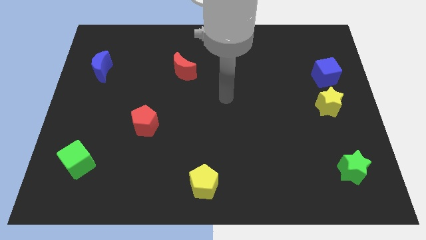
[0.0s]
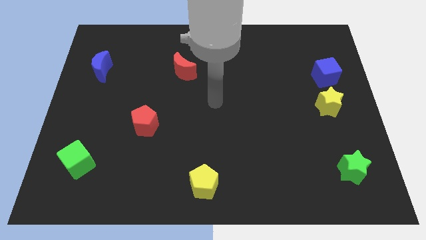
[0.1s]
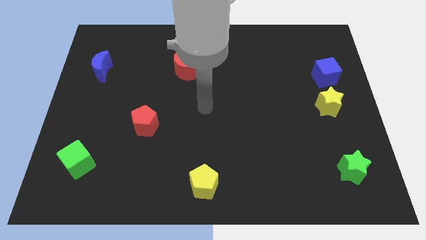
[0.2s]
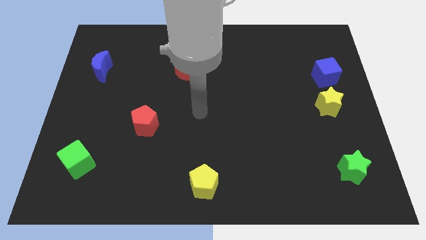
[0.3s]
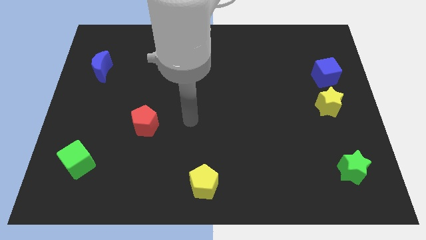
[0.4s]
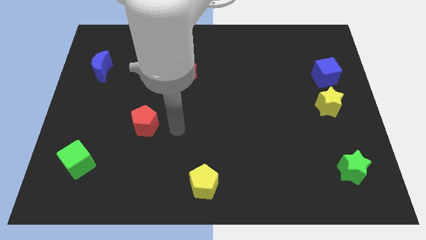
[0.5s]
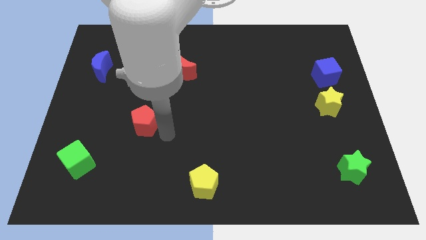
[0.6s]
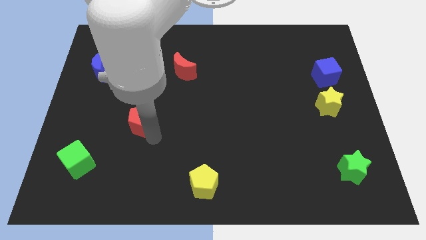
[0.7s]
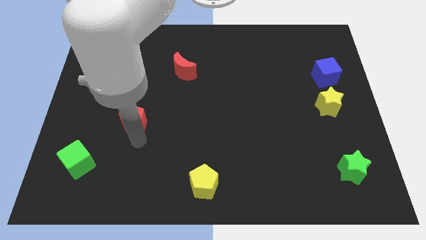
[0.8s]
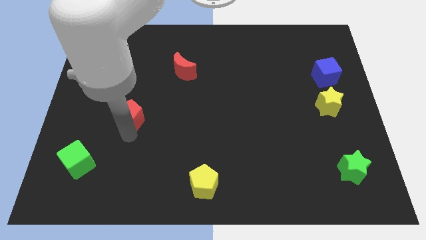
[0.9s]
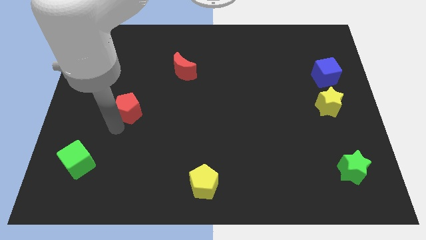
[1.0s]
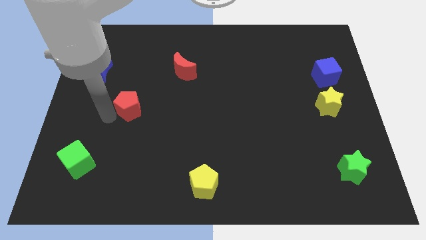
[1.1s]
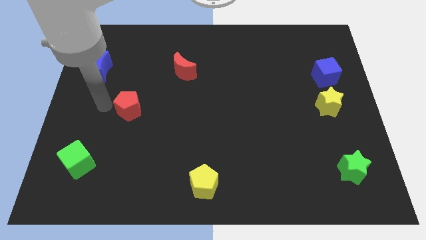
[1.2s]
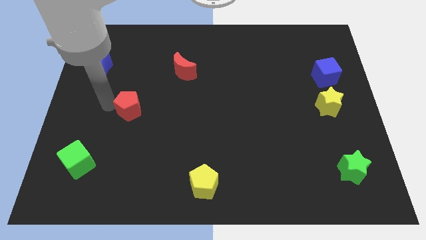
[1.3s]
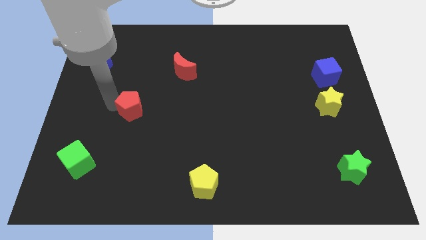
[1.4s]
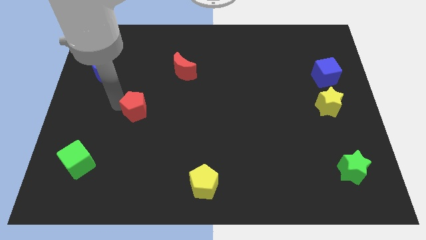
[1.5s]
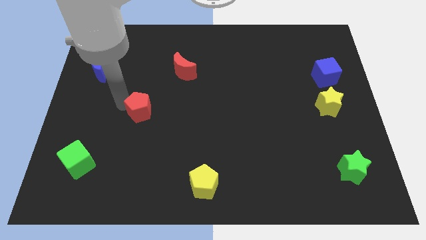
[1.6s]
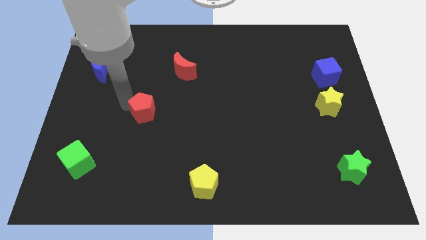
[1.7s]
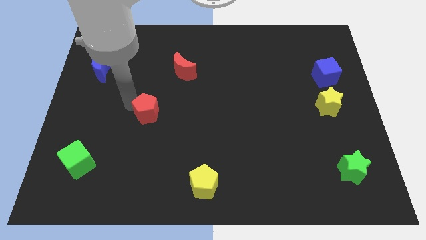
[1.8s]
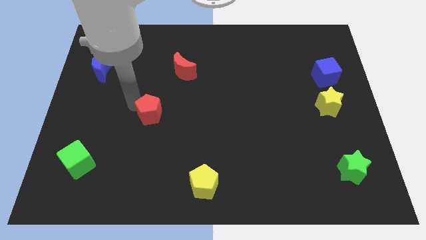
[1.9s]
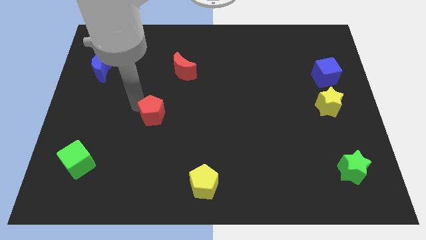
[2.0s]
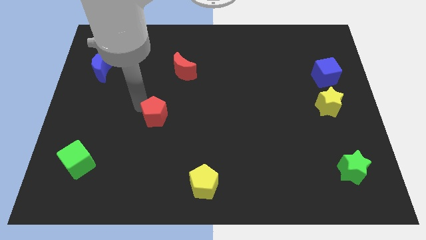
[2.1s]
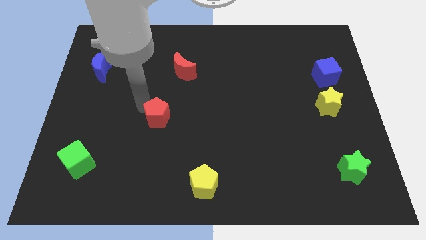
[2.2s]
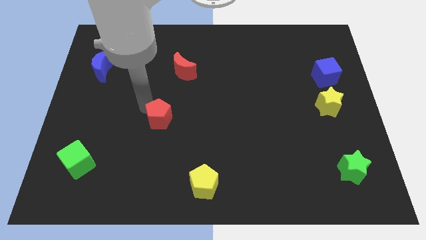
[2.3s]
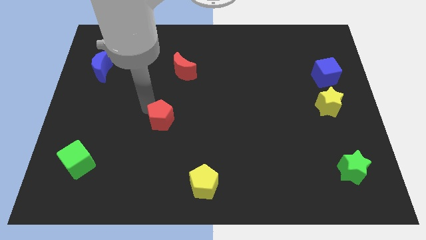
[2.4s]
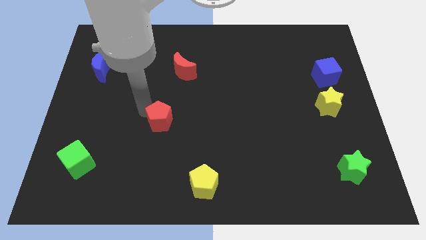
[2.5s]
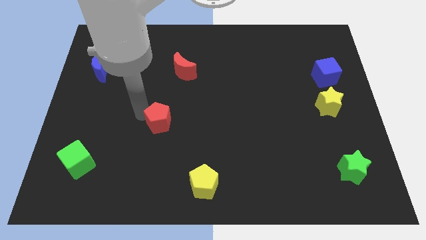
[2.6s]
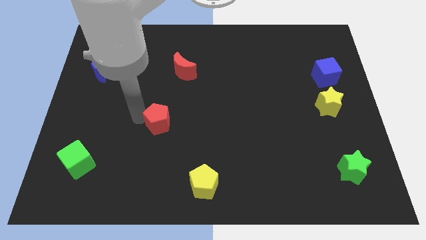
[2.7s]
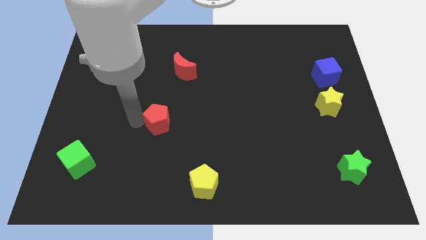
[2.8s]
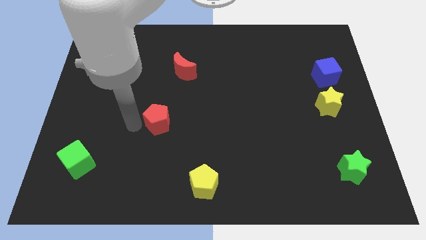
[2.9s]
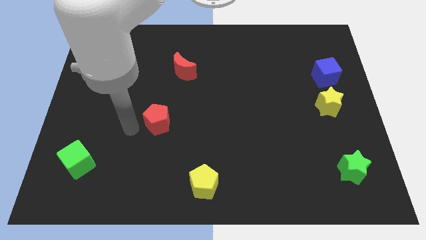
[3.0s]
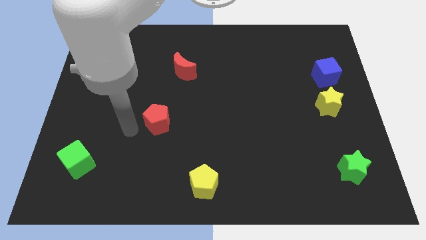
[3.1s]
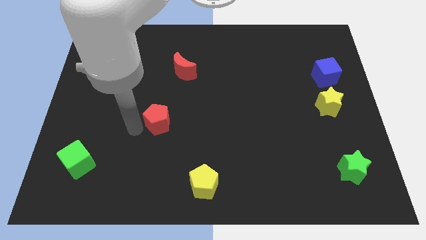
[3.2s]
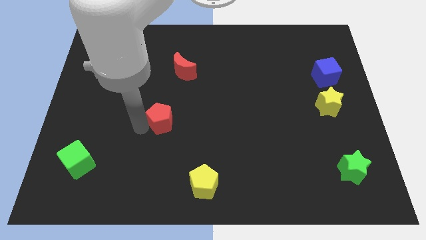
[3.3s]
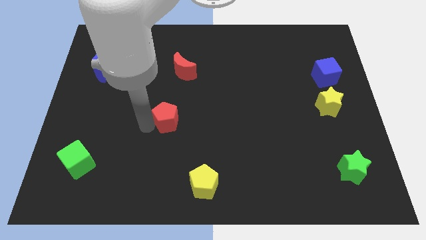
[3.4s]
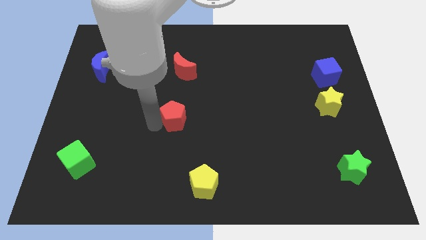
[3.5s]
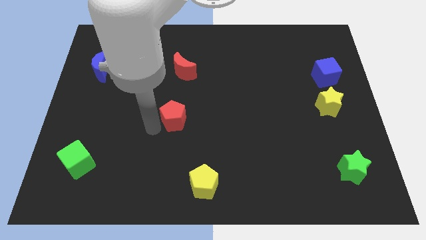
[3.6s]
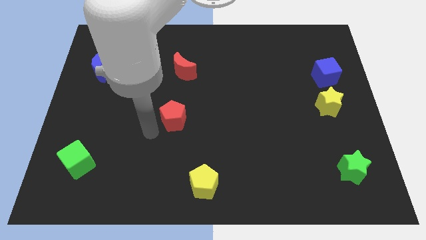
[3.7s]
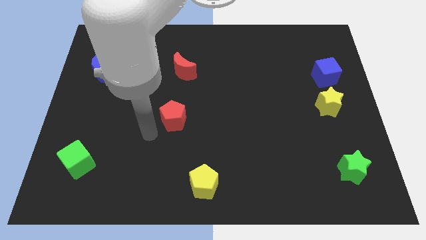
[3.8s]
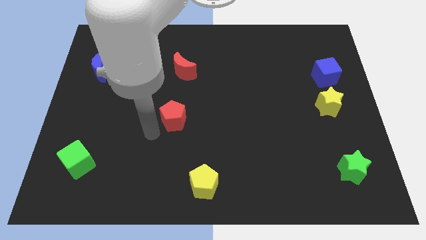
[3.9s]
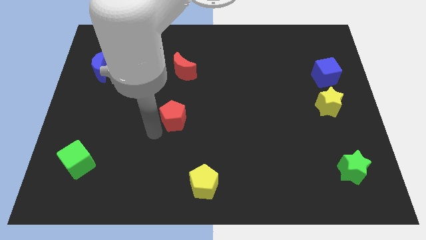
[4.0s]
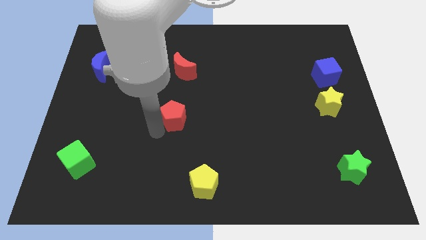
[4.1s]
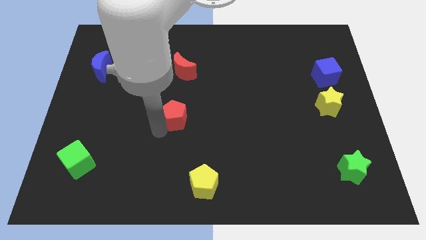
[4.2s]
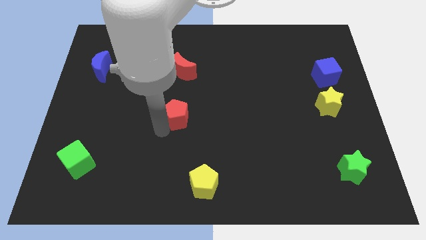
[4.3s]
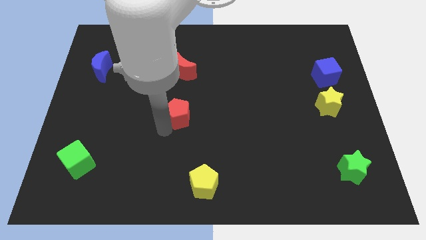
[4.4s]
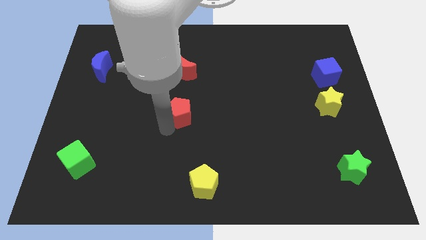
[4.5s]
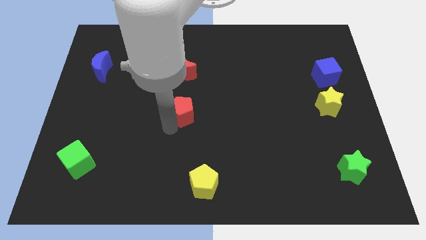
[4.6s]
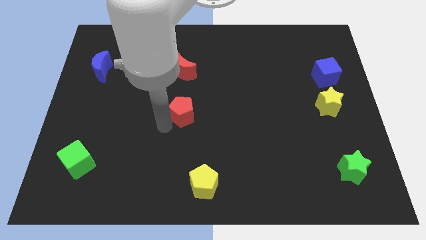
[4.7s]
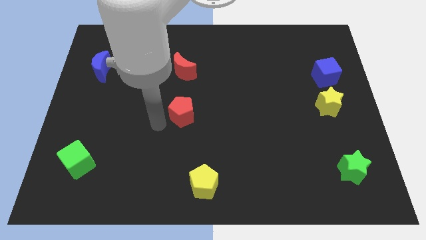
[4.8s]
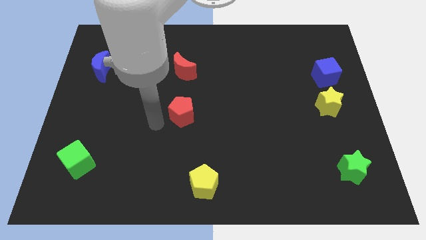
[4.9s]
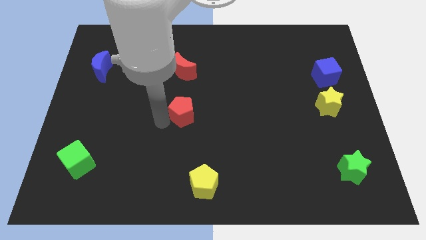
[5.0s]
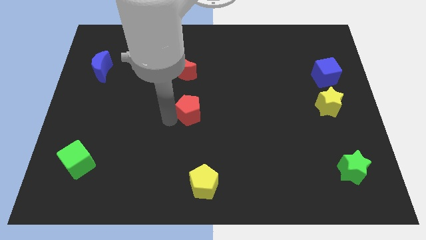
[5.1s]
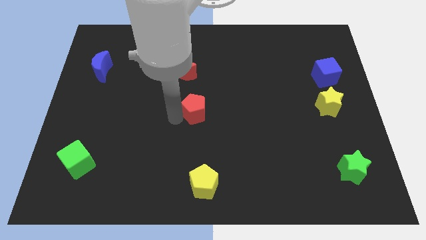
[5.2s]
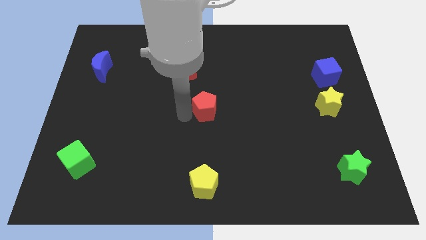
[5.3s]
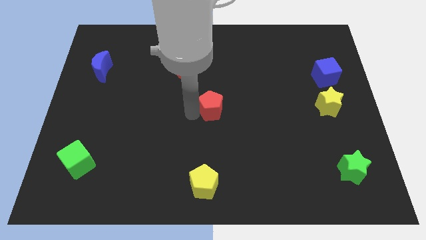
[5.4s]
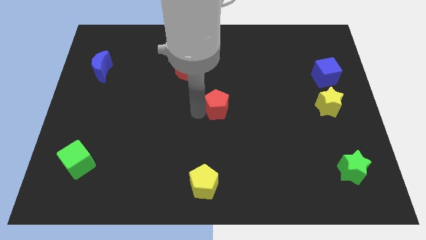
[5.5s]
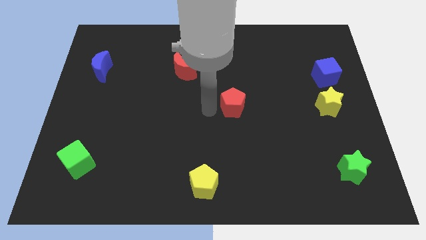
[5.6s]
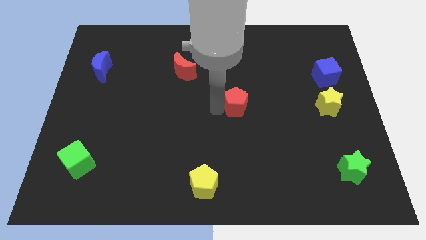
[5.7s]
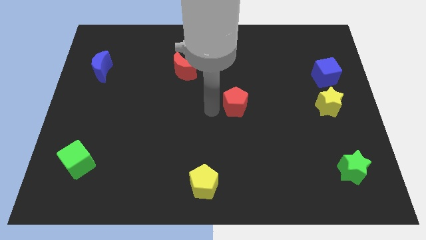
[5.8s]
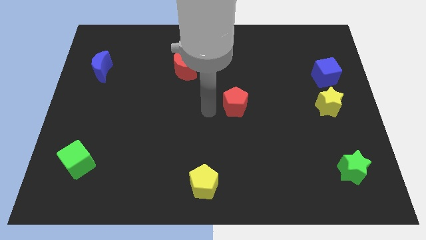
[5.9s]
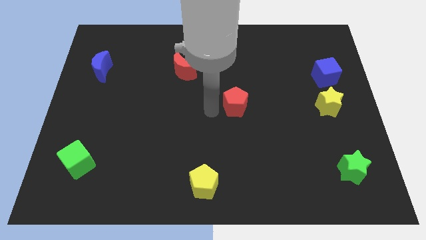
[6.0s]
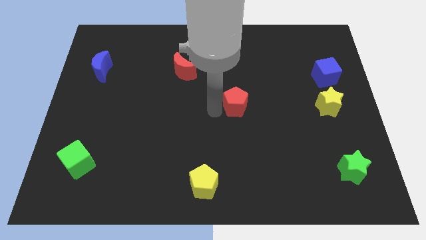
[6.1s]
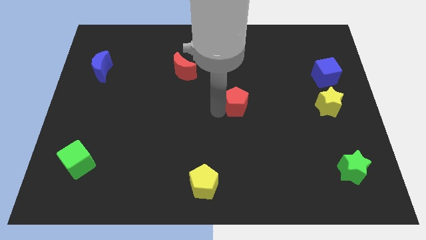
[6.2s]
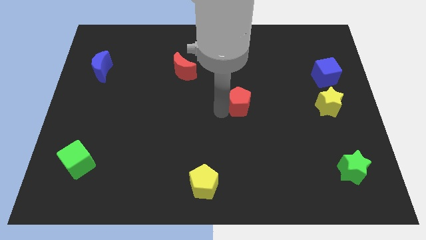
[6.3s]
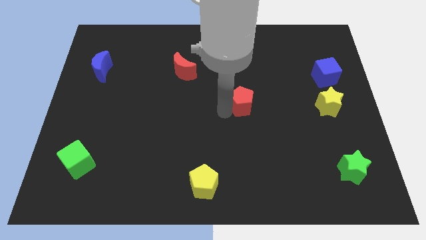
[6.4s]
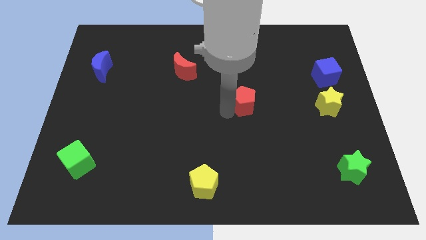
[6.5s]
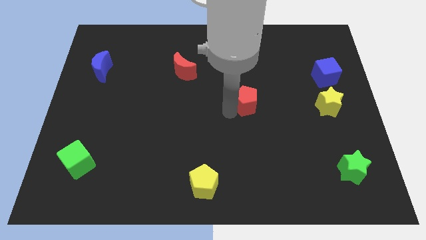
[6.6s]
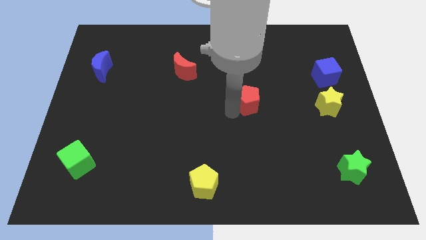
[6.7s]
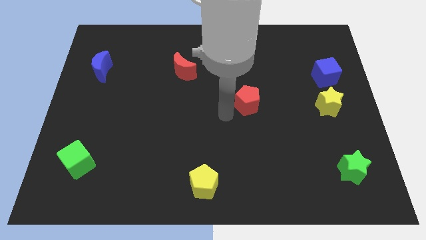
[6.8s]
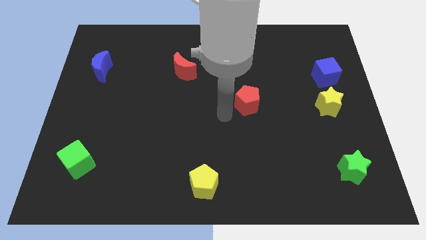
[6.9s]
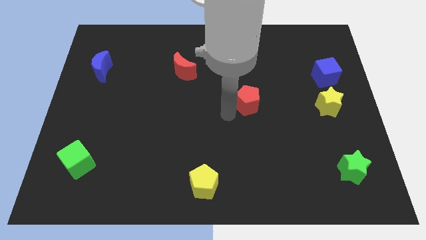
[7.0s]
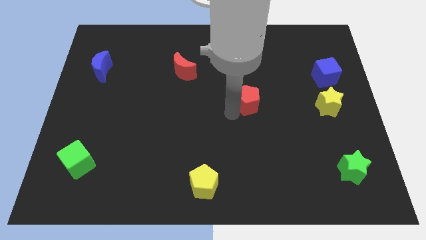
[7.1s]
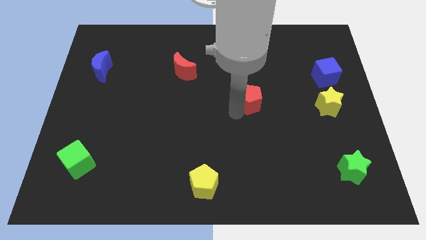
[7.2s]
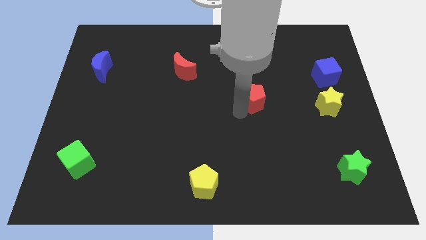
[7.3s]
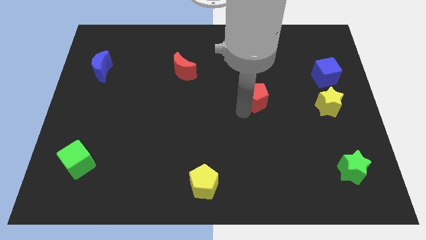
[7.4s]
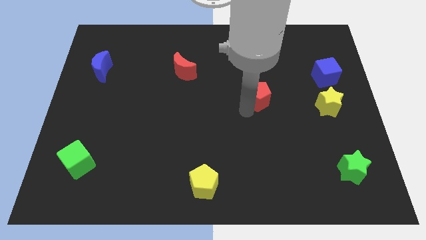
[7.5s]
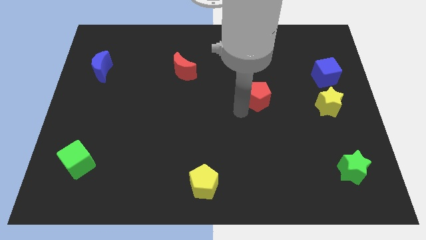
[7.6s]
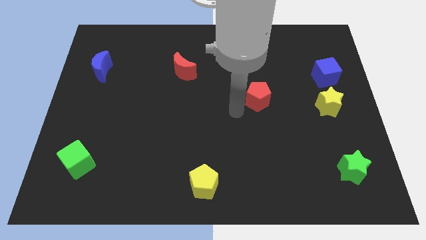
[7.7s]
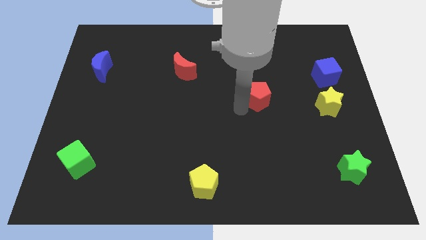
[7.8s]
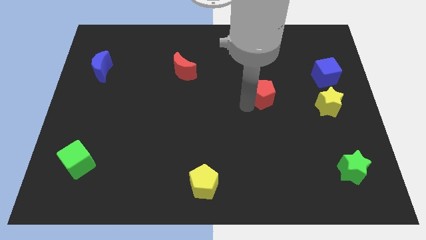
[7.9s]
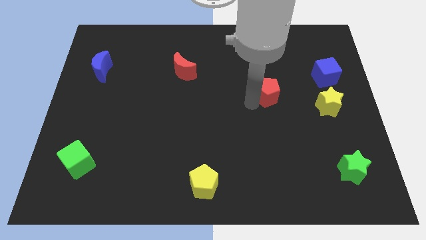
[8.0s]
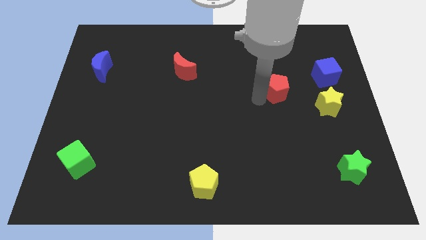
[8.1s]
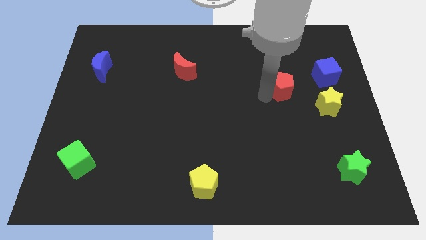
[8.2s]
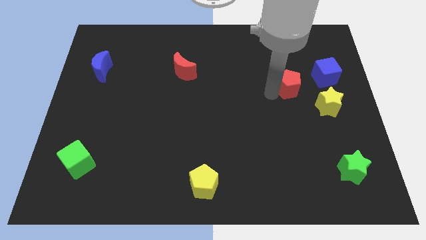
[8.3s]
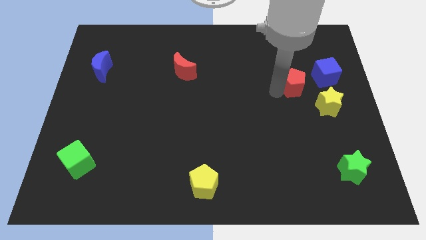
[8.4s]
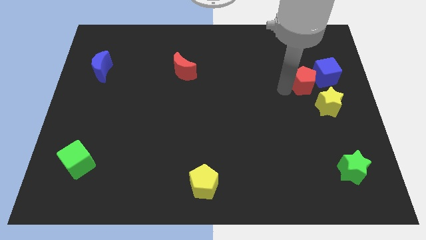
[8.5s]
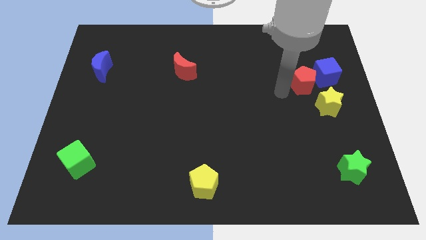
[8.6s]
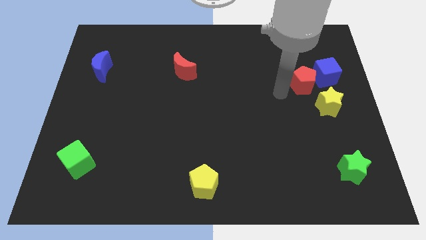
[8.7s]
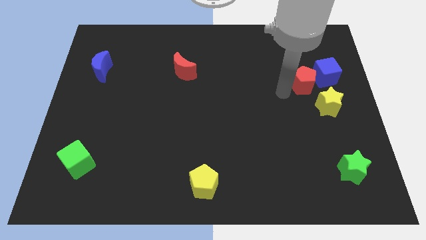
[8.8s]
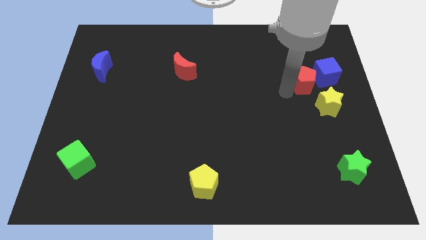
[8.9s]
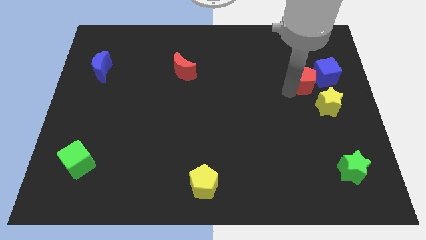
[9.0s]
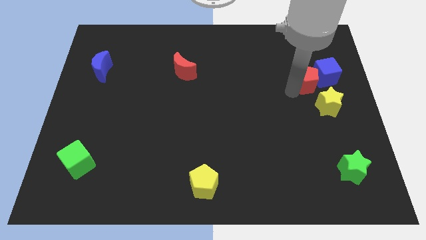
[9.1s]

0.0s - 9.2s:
put the red pentagon next to the blue cube
